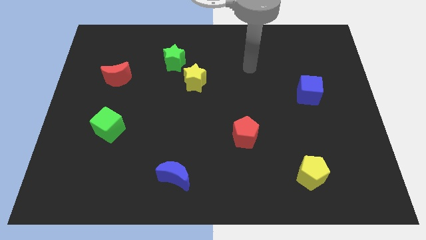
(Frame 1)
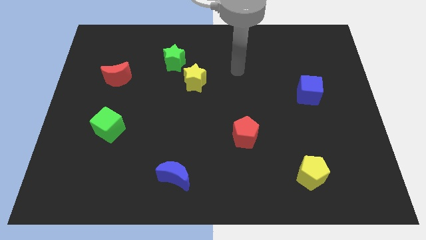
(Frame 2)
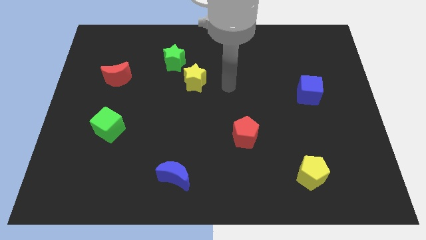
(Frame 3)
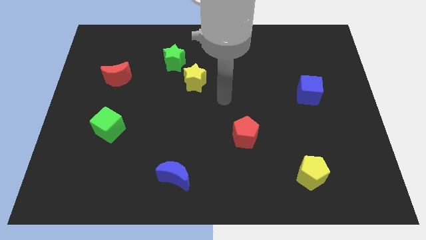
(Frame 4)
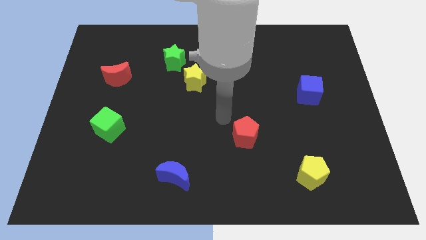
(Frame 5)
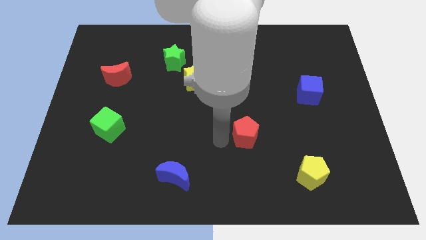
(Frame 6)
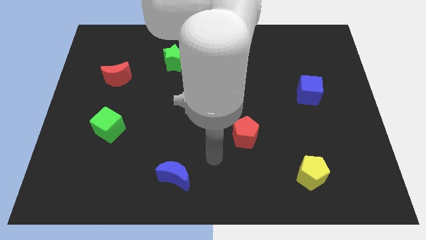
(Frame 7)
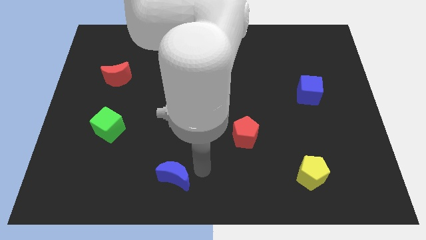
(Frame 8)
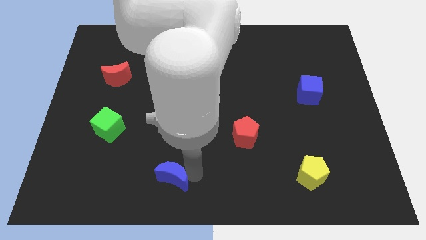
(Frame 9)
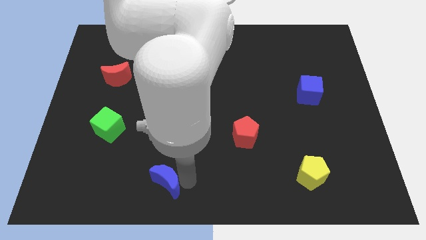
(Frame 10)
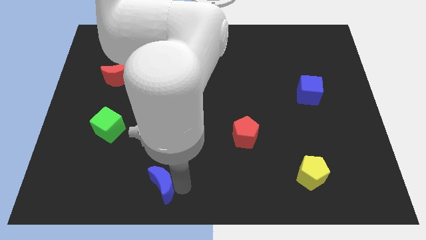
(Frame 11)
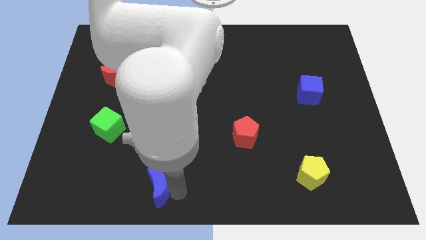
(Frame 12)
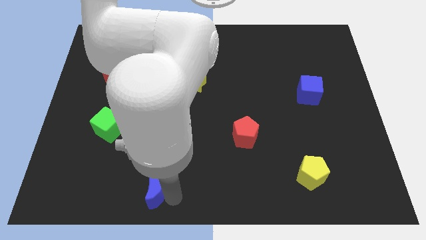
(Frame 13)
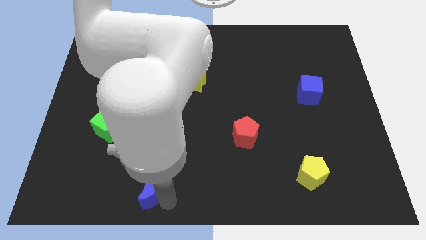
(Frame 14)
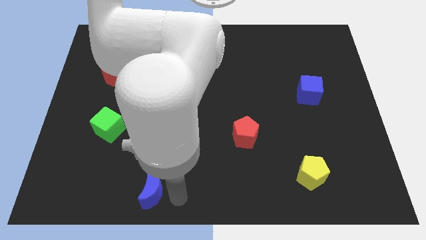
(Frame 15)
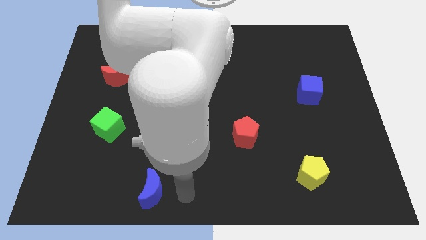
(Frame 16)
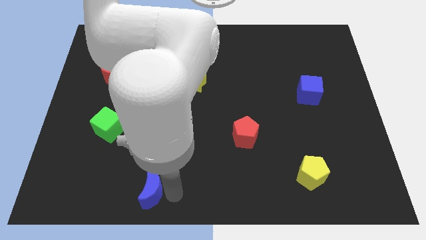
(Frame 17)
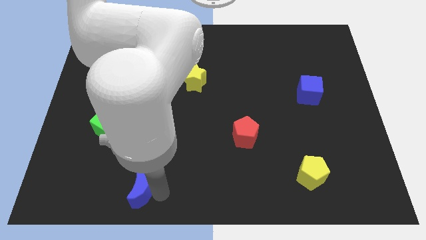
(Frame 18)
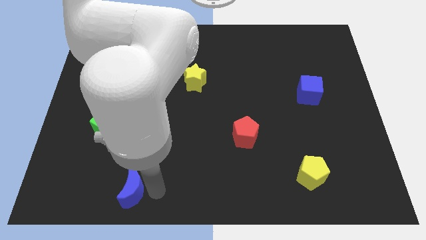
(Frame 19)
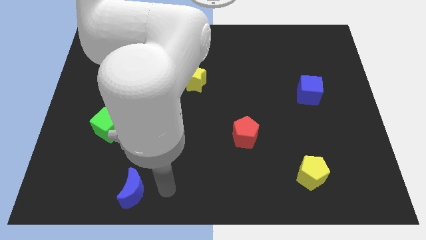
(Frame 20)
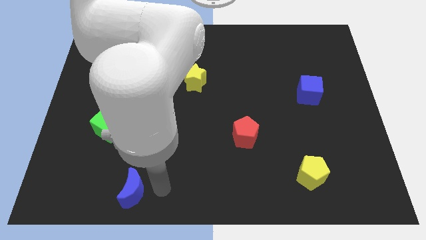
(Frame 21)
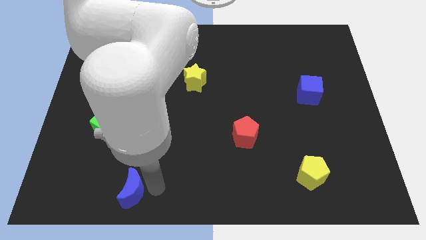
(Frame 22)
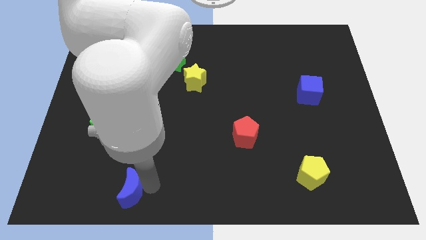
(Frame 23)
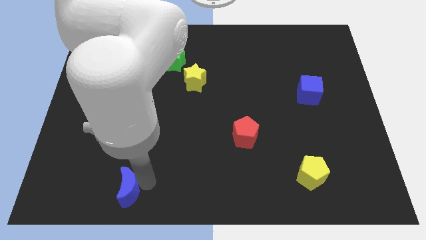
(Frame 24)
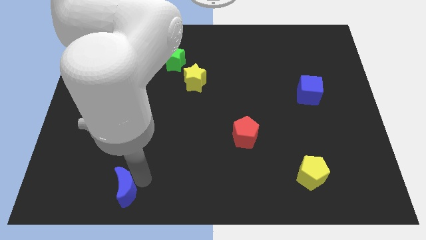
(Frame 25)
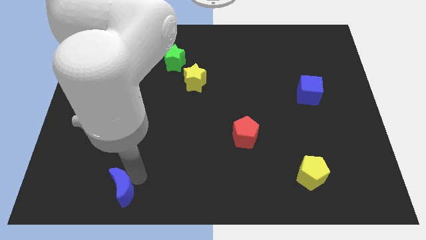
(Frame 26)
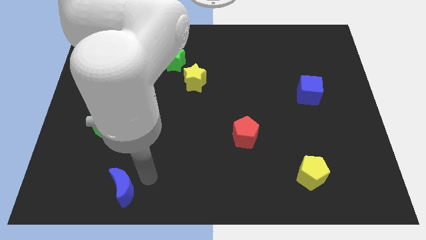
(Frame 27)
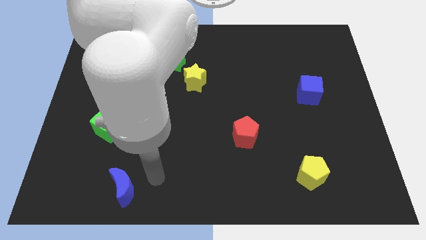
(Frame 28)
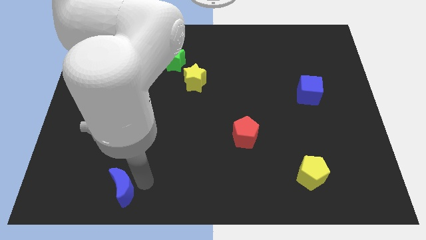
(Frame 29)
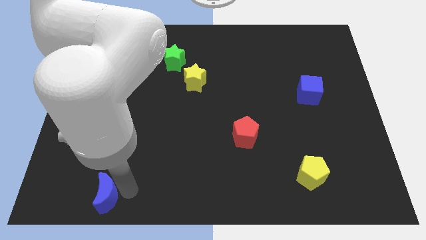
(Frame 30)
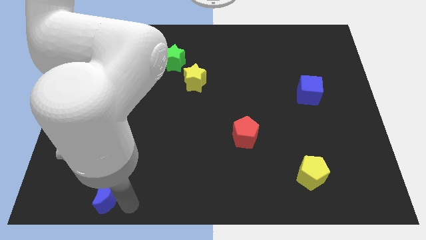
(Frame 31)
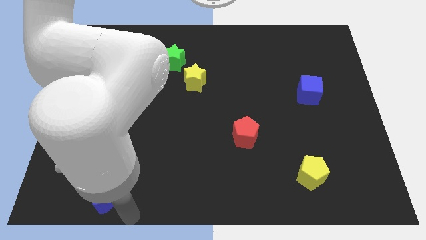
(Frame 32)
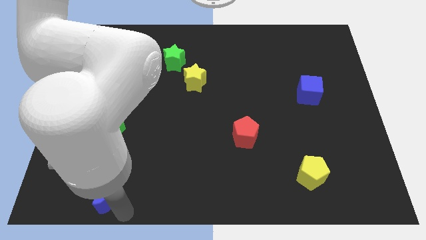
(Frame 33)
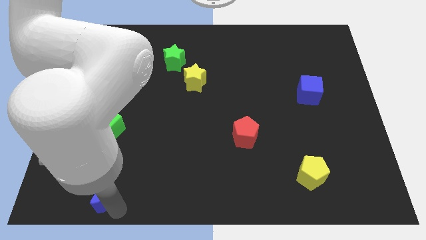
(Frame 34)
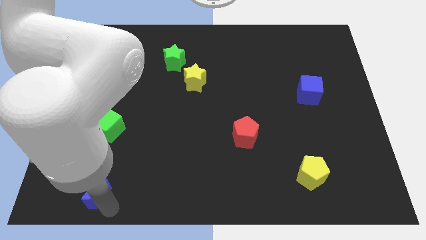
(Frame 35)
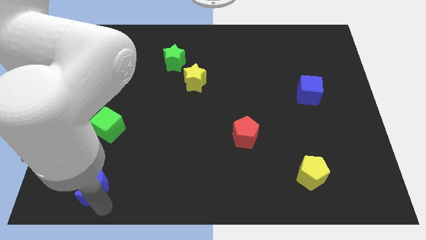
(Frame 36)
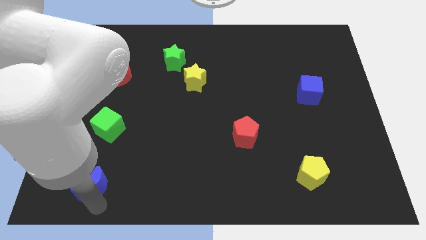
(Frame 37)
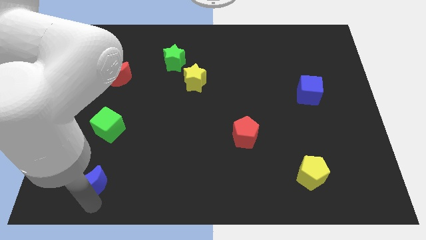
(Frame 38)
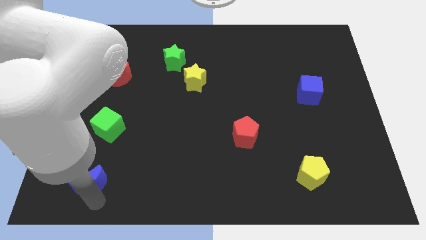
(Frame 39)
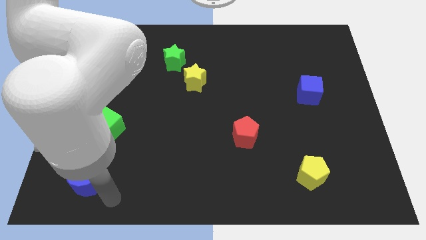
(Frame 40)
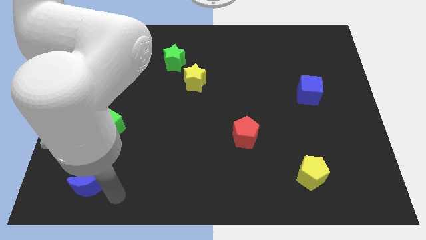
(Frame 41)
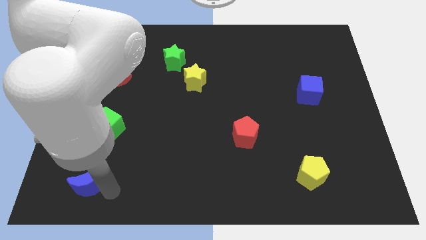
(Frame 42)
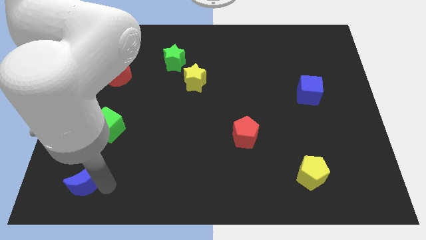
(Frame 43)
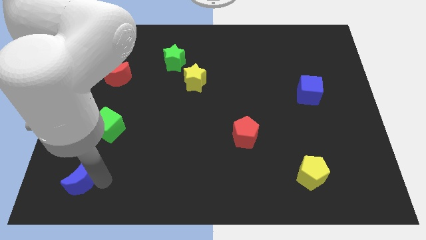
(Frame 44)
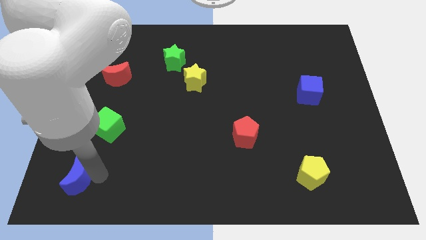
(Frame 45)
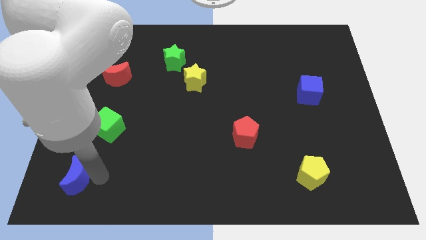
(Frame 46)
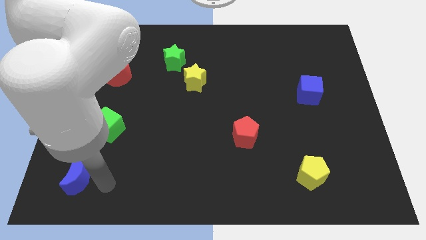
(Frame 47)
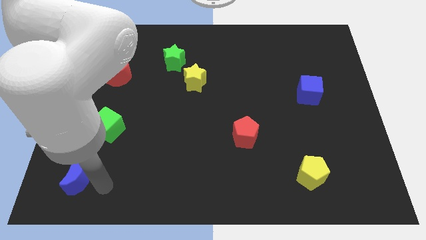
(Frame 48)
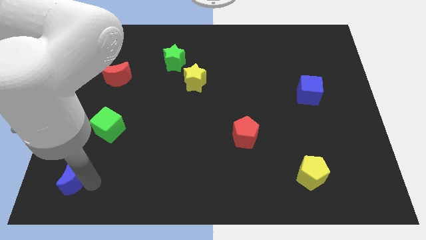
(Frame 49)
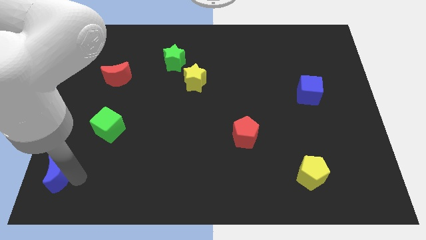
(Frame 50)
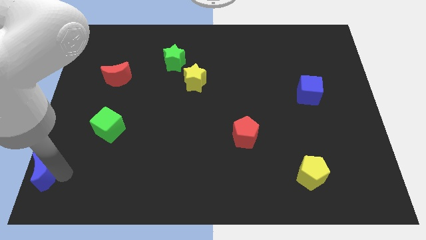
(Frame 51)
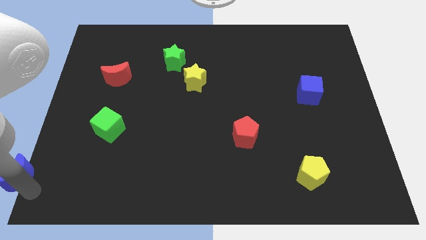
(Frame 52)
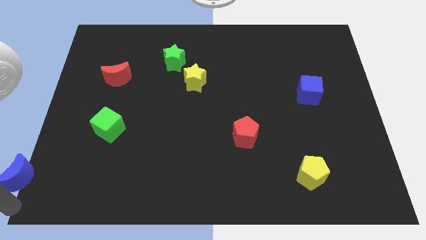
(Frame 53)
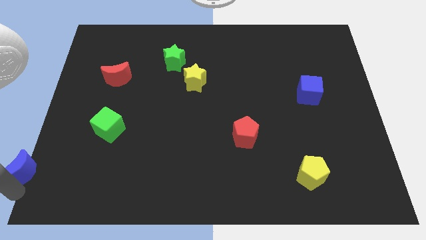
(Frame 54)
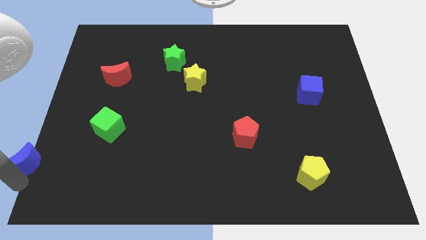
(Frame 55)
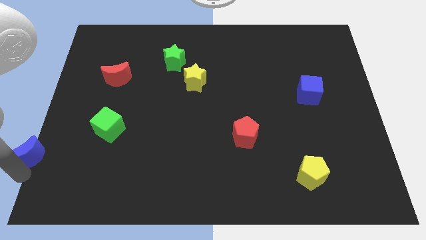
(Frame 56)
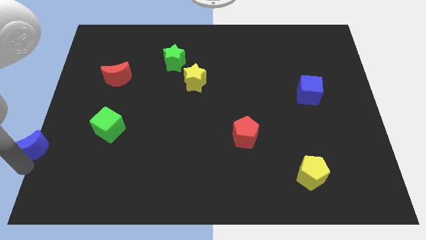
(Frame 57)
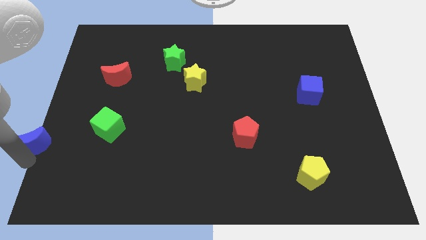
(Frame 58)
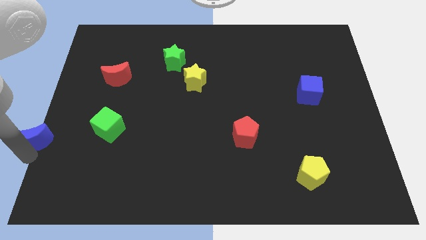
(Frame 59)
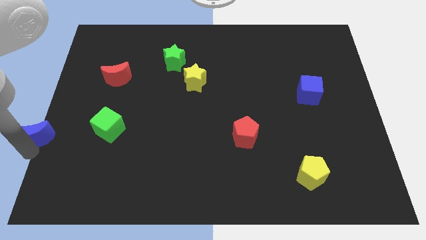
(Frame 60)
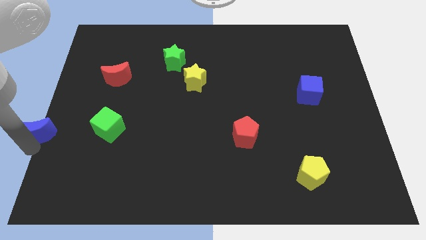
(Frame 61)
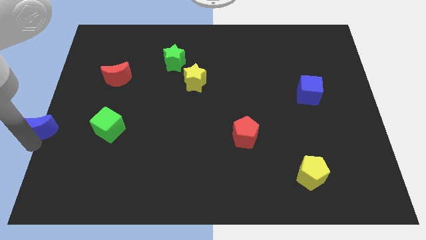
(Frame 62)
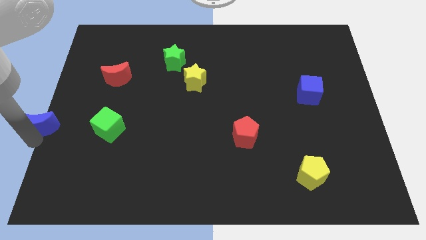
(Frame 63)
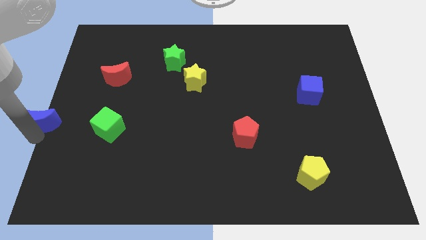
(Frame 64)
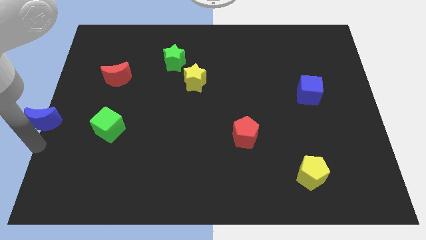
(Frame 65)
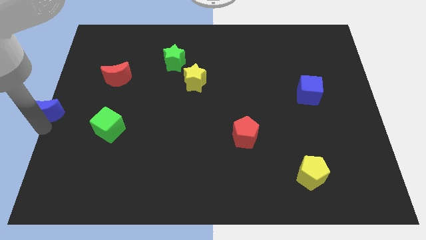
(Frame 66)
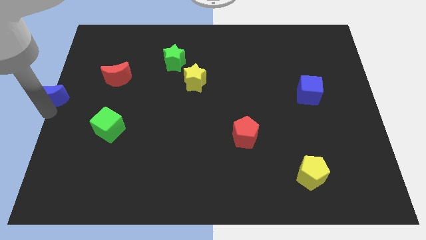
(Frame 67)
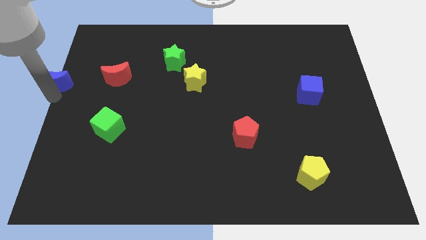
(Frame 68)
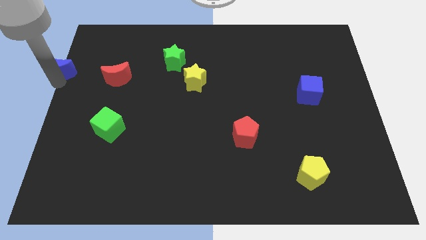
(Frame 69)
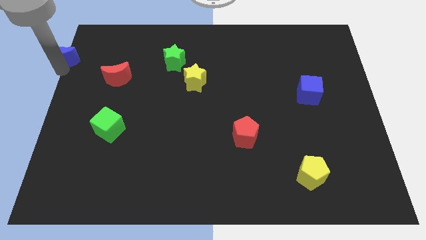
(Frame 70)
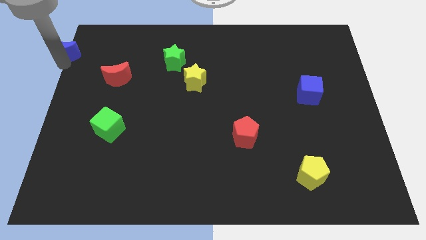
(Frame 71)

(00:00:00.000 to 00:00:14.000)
move the blue moon to the top left
